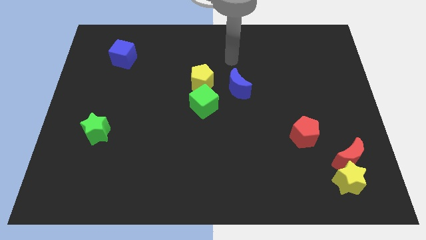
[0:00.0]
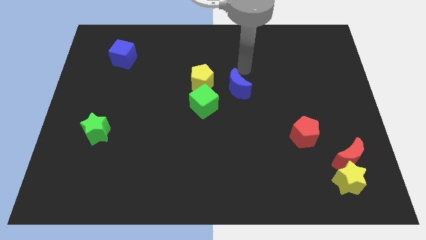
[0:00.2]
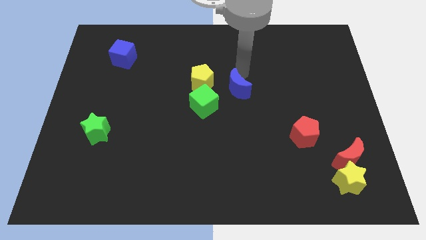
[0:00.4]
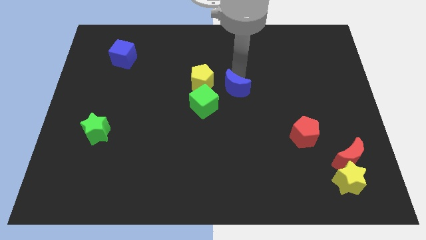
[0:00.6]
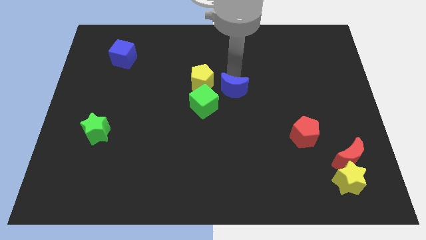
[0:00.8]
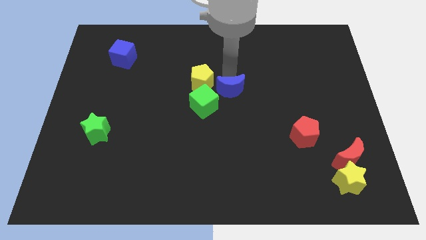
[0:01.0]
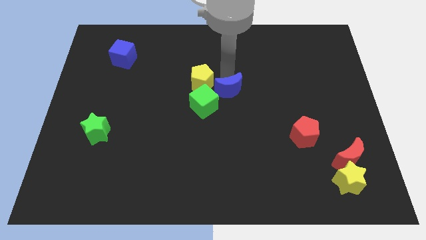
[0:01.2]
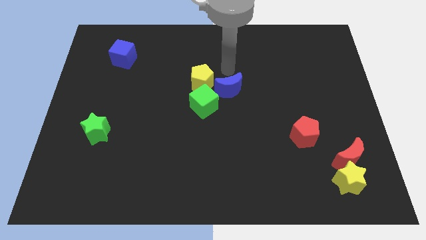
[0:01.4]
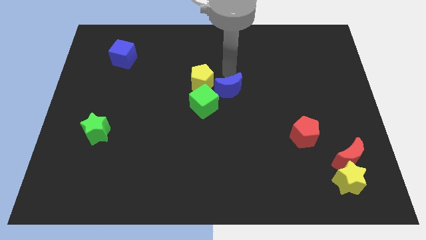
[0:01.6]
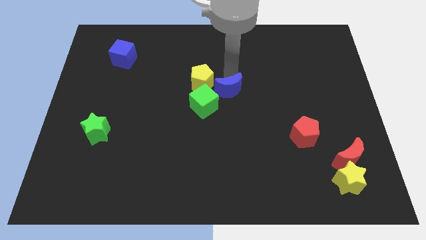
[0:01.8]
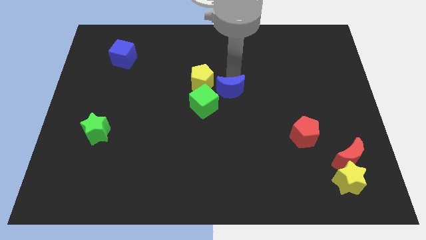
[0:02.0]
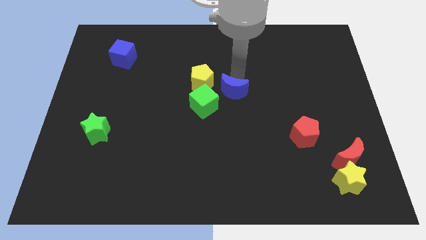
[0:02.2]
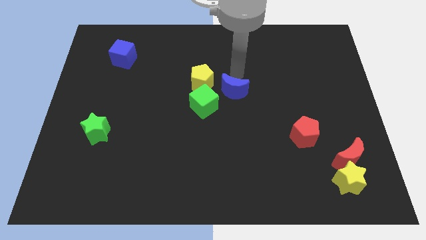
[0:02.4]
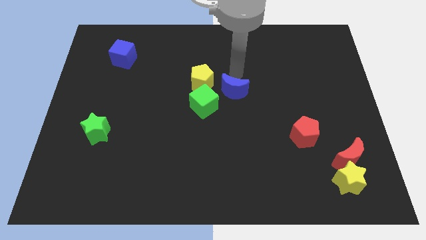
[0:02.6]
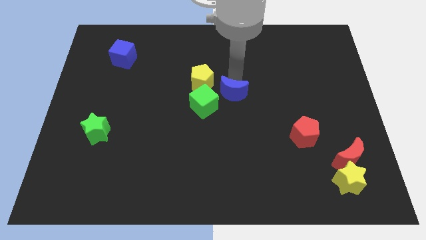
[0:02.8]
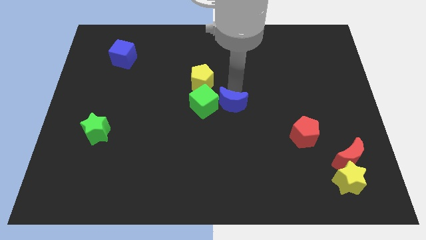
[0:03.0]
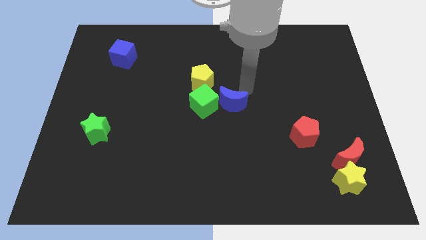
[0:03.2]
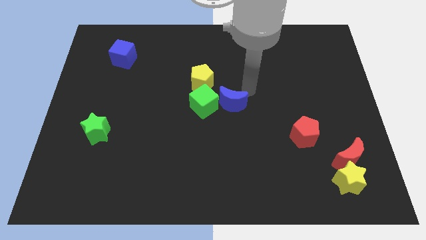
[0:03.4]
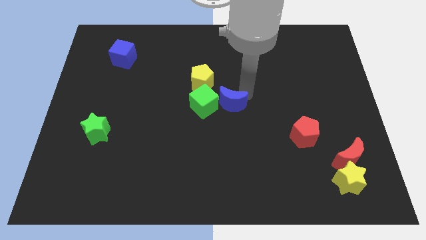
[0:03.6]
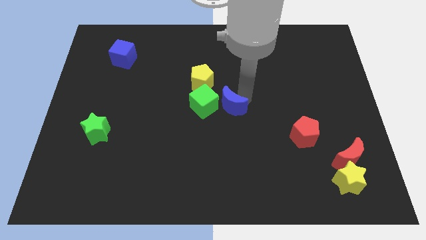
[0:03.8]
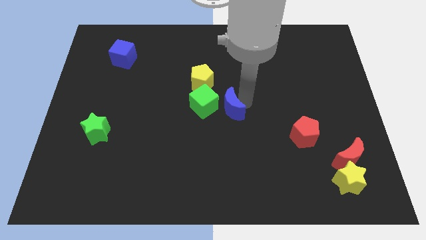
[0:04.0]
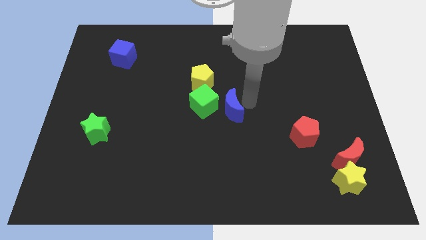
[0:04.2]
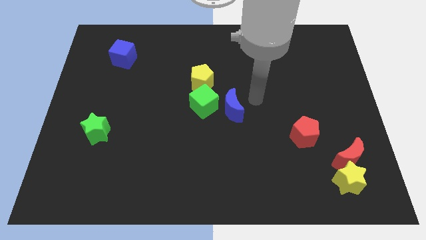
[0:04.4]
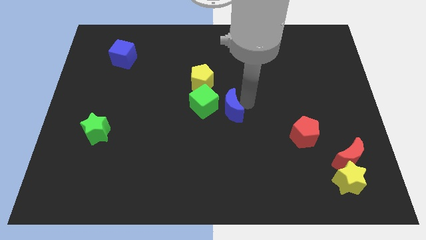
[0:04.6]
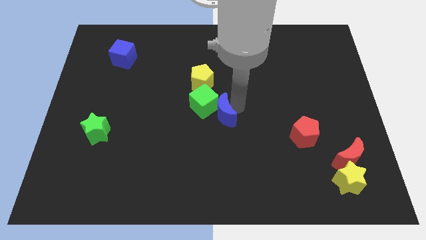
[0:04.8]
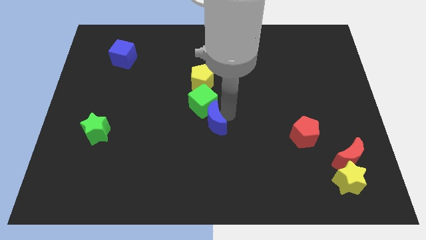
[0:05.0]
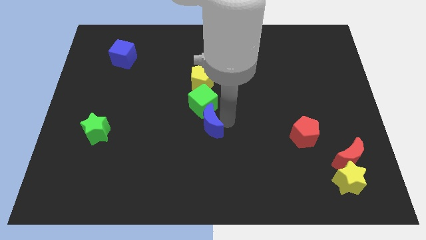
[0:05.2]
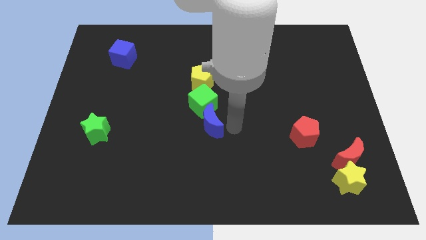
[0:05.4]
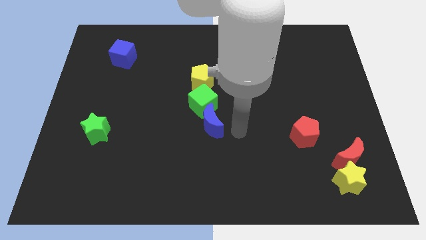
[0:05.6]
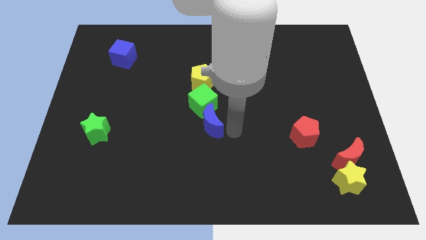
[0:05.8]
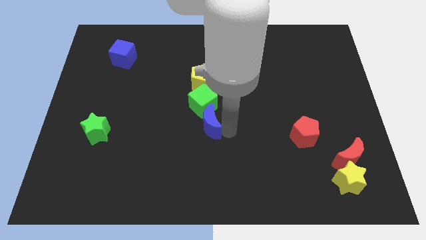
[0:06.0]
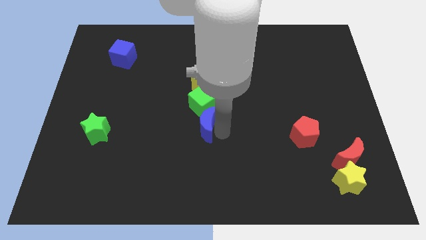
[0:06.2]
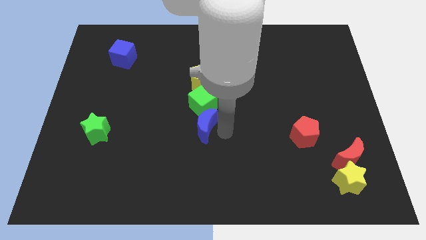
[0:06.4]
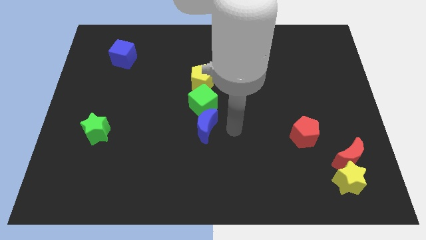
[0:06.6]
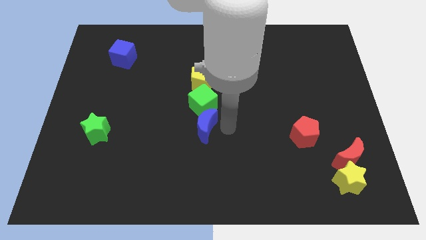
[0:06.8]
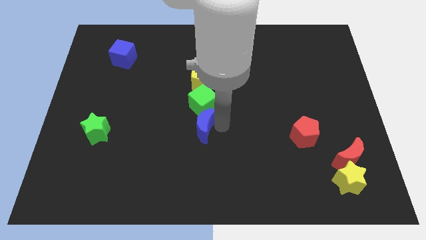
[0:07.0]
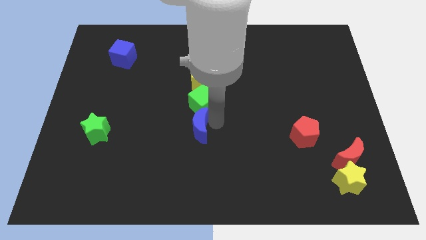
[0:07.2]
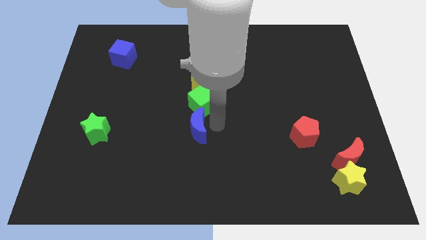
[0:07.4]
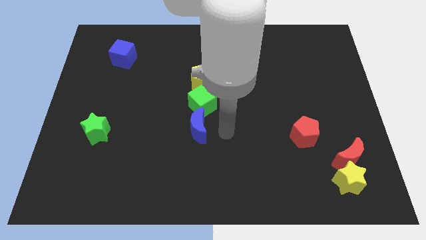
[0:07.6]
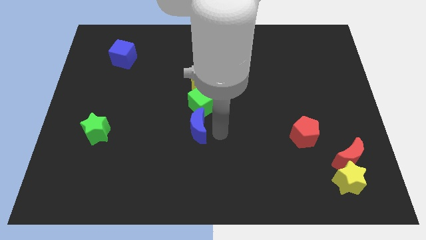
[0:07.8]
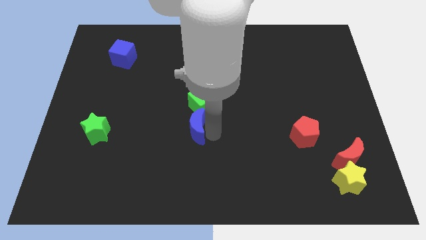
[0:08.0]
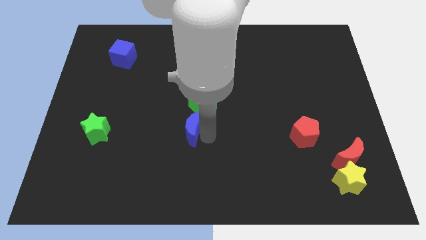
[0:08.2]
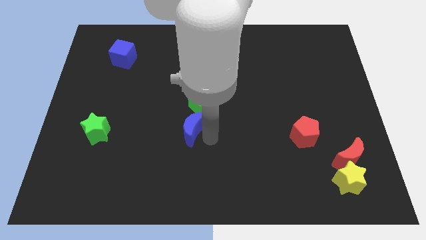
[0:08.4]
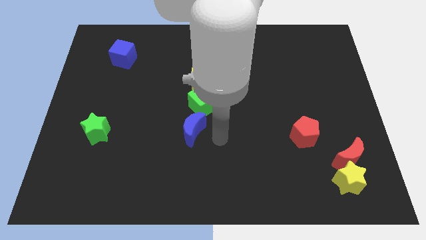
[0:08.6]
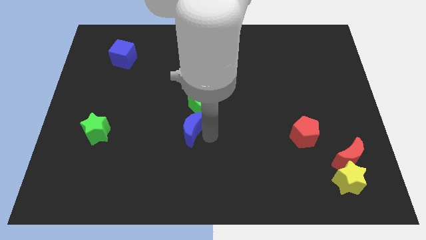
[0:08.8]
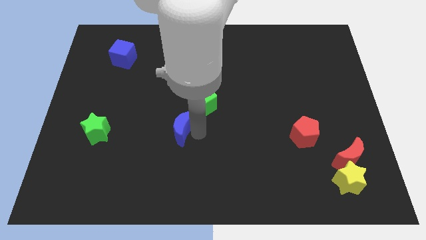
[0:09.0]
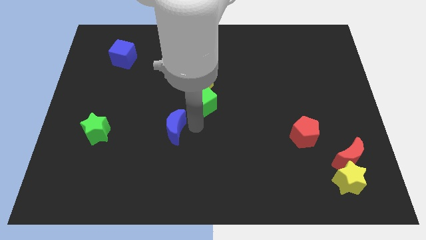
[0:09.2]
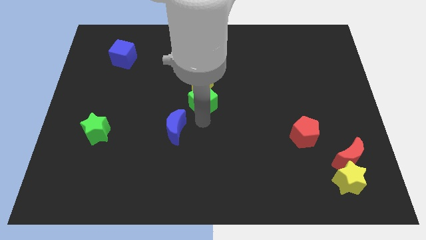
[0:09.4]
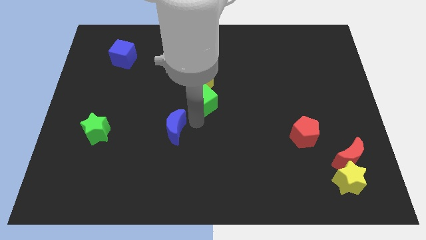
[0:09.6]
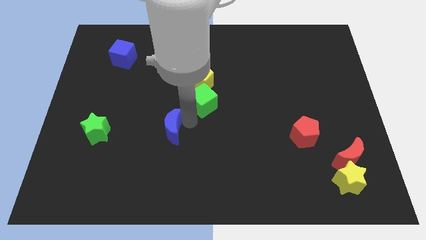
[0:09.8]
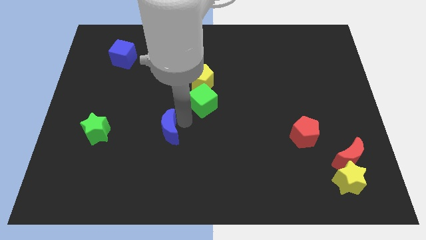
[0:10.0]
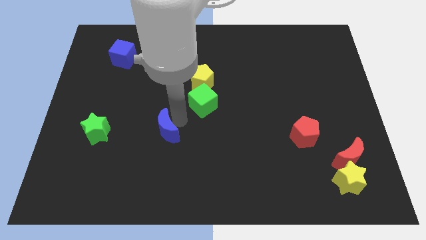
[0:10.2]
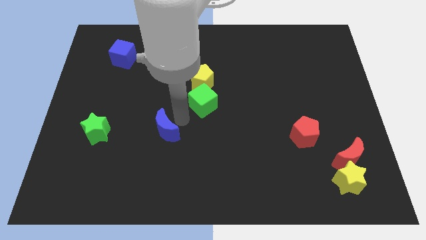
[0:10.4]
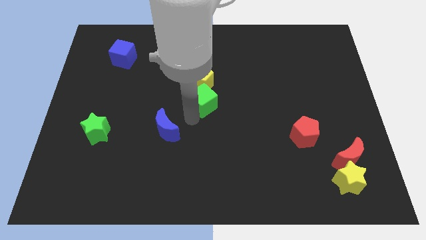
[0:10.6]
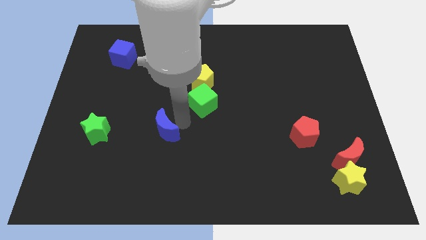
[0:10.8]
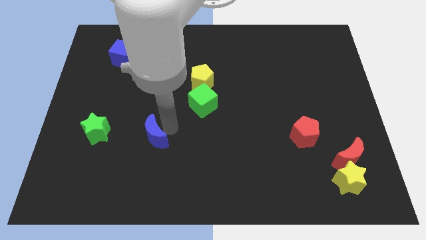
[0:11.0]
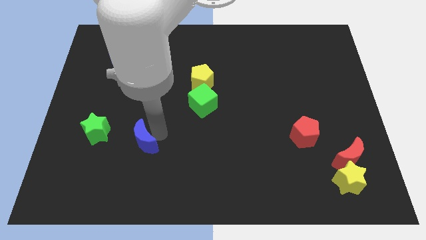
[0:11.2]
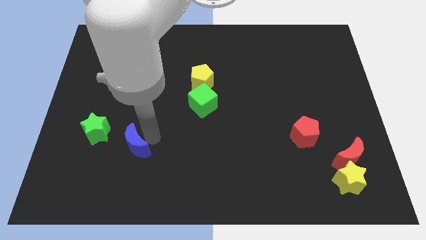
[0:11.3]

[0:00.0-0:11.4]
move the blue moon diagonally down and to the right of the green star

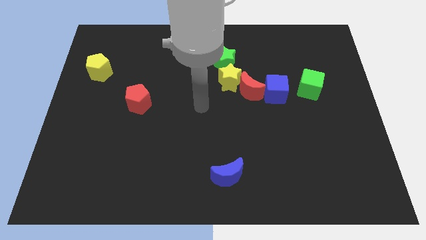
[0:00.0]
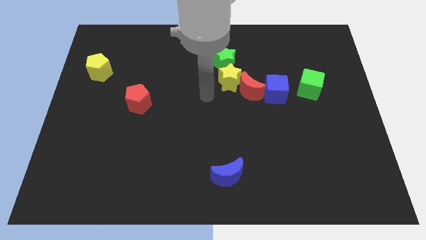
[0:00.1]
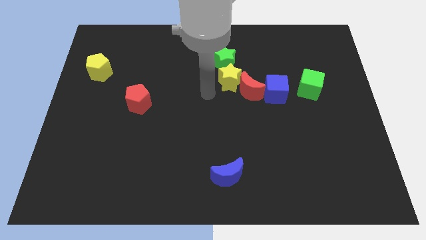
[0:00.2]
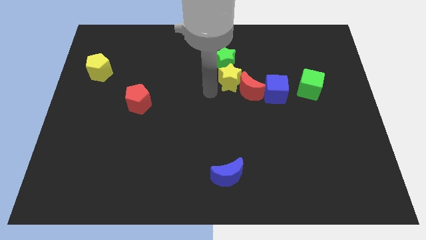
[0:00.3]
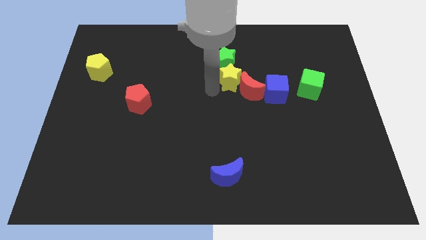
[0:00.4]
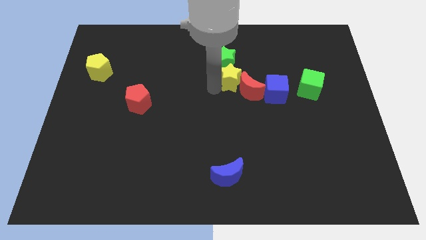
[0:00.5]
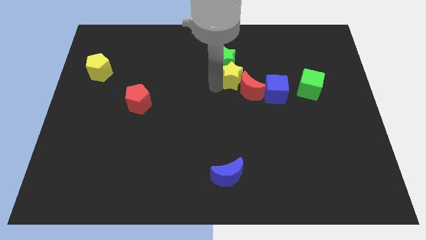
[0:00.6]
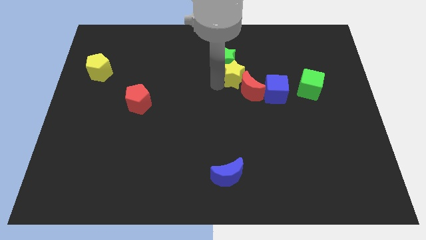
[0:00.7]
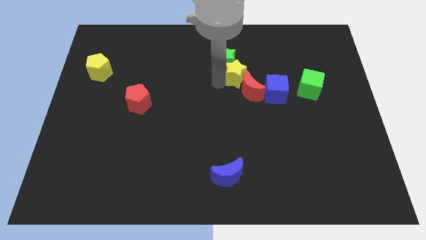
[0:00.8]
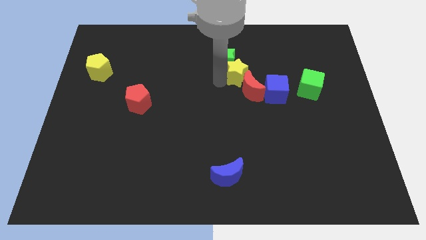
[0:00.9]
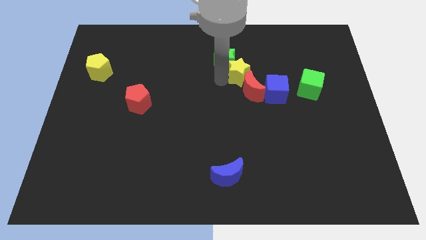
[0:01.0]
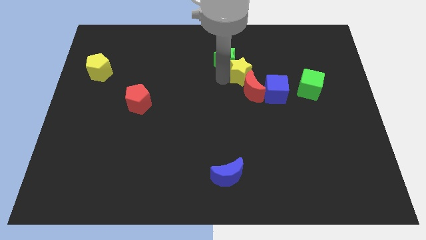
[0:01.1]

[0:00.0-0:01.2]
put the yellow star to the right of the green star
